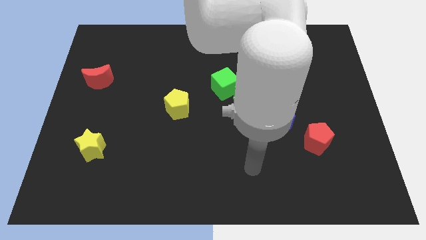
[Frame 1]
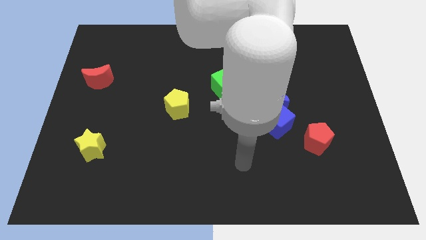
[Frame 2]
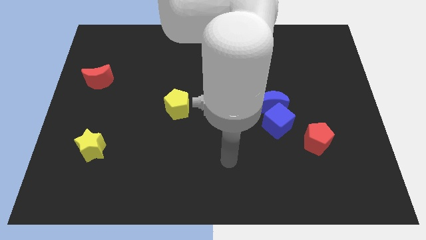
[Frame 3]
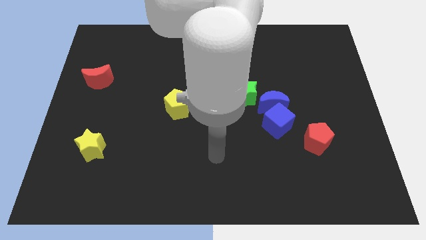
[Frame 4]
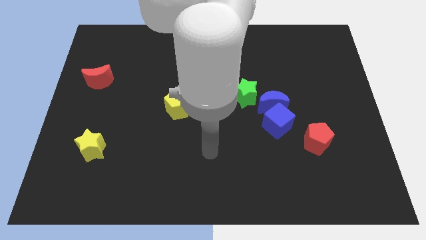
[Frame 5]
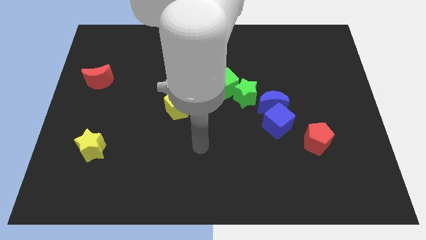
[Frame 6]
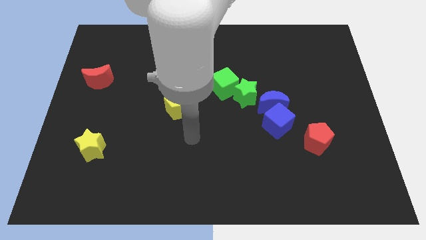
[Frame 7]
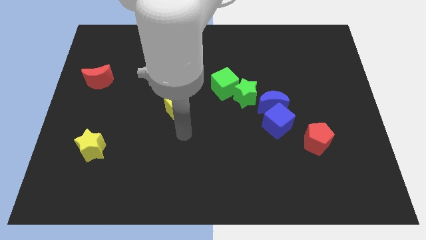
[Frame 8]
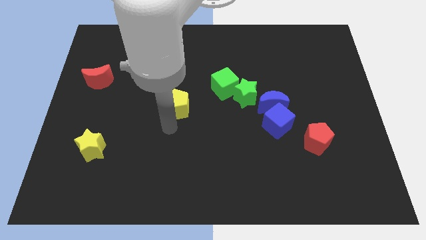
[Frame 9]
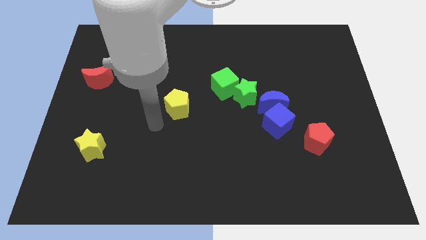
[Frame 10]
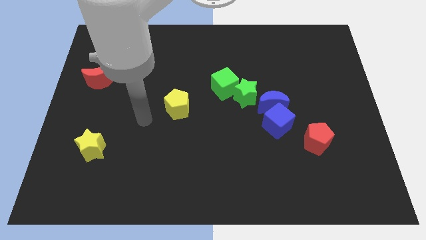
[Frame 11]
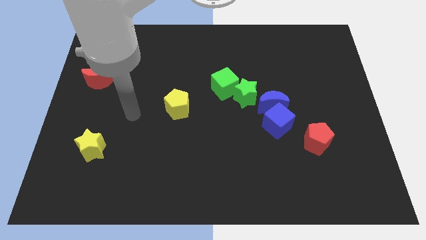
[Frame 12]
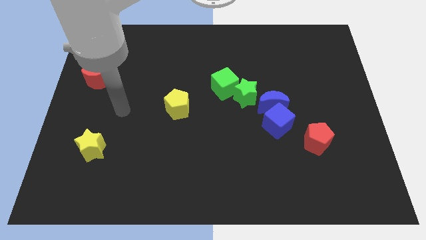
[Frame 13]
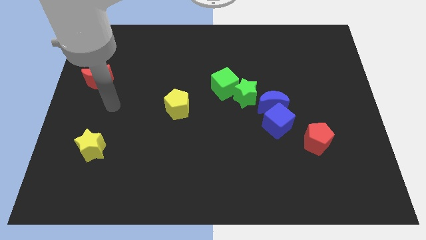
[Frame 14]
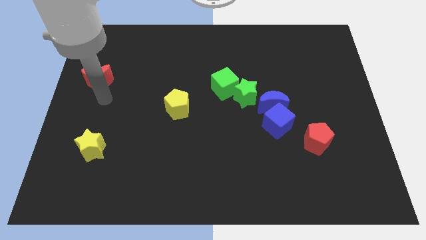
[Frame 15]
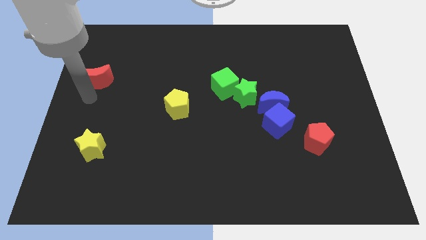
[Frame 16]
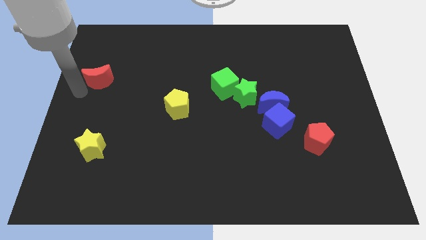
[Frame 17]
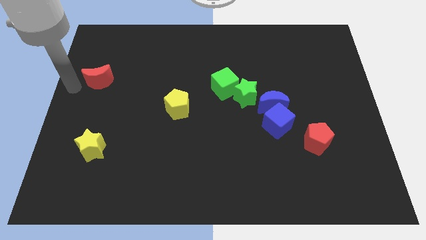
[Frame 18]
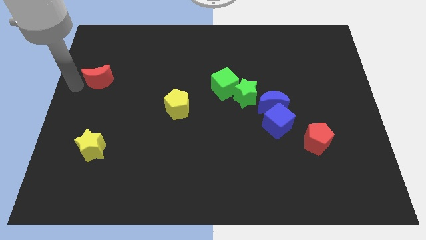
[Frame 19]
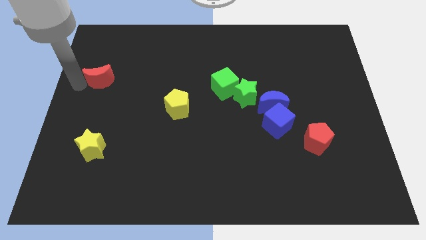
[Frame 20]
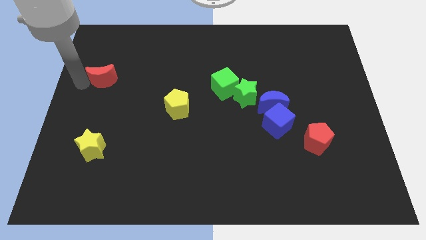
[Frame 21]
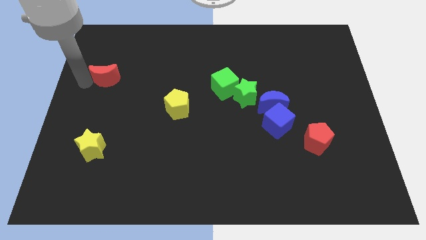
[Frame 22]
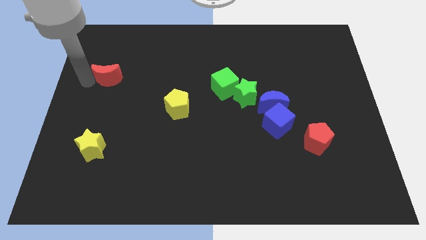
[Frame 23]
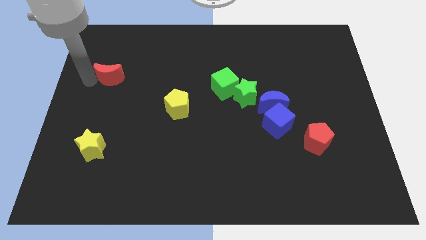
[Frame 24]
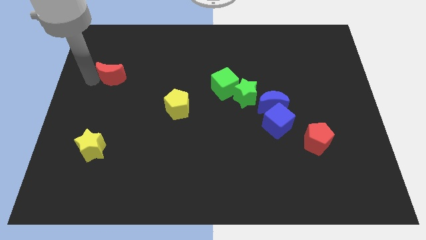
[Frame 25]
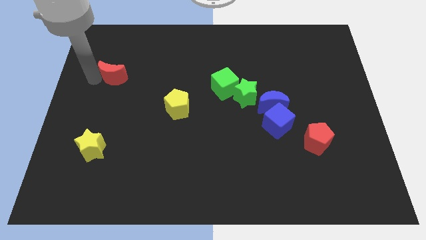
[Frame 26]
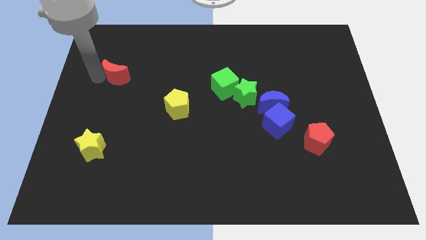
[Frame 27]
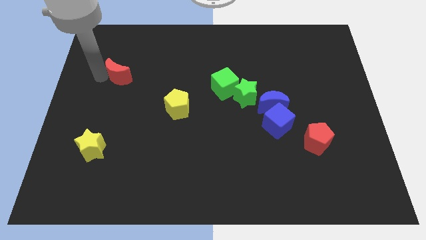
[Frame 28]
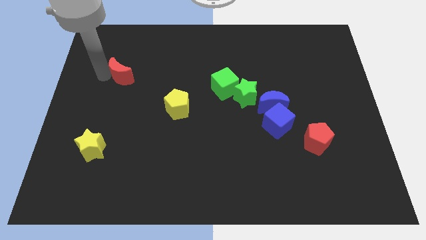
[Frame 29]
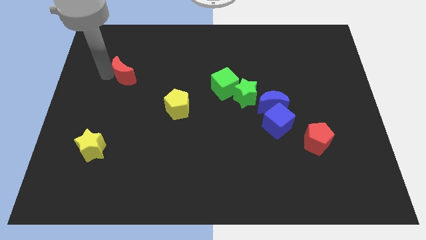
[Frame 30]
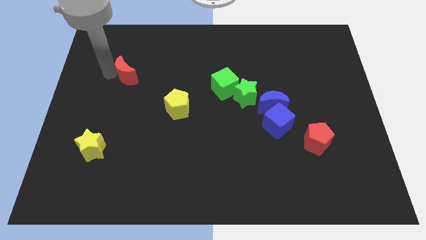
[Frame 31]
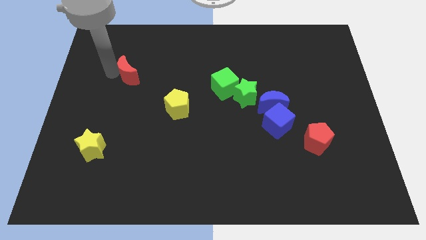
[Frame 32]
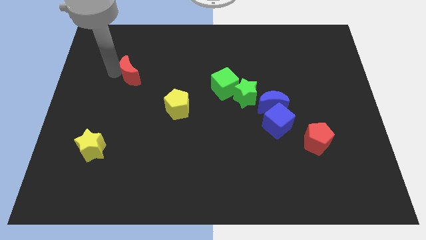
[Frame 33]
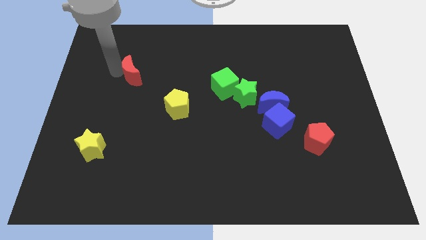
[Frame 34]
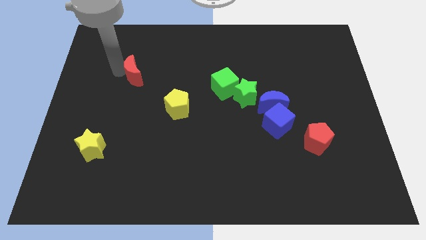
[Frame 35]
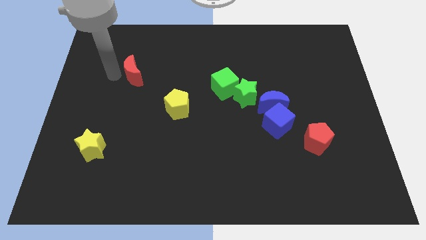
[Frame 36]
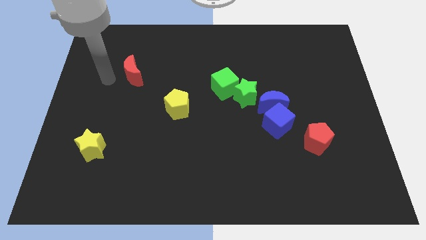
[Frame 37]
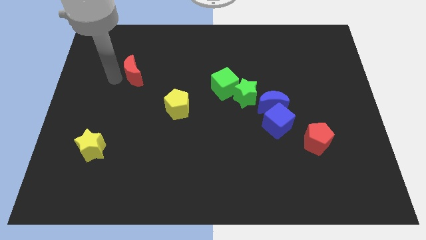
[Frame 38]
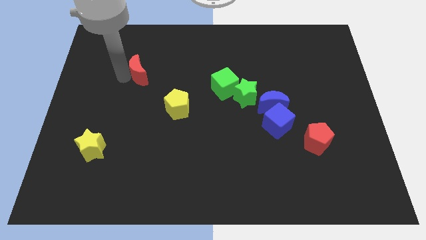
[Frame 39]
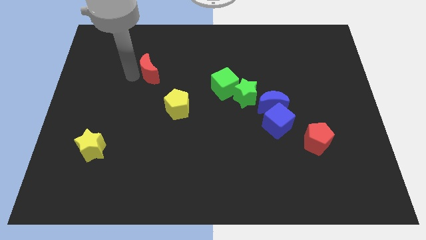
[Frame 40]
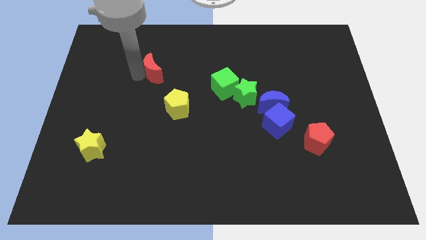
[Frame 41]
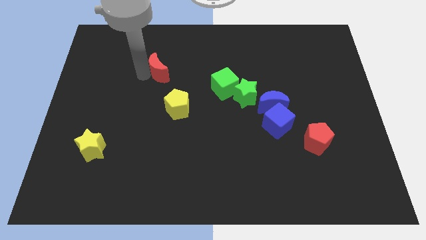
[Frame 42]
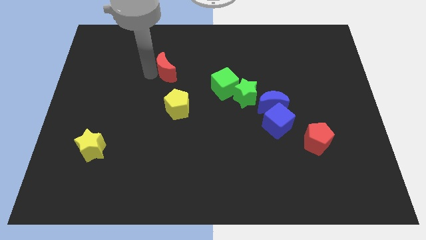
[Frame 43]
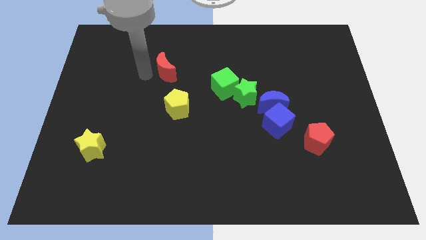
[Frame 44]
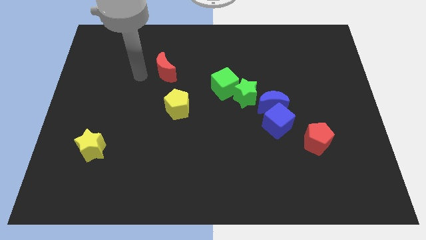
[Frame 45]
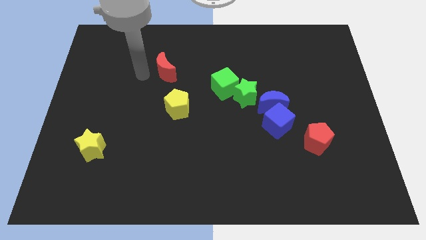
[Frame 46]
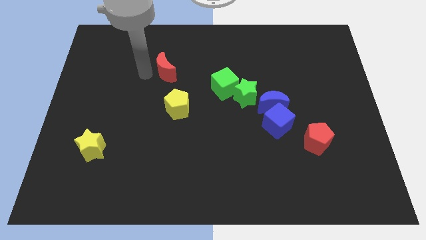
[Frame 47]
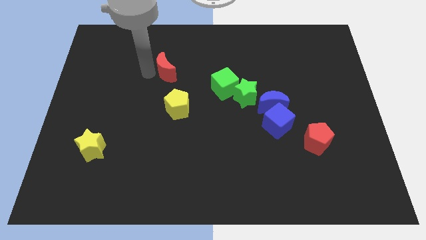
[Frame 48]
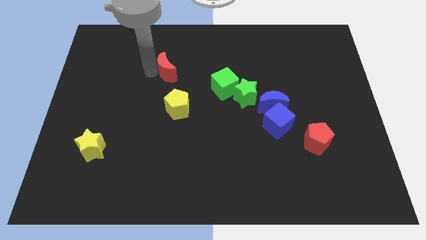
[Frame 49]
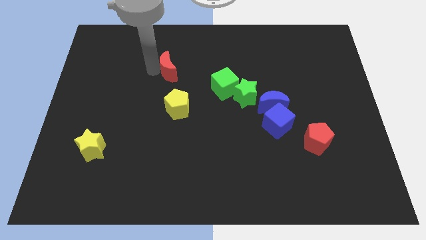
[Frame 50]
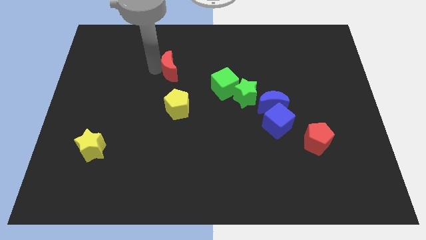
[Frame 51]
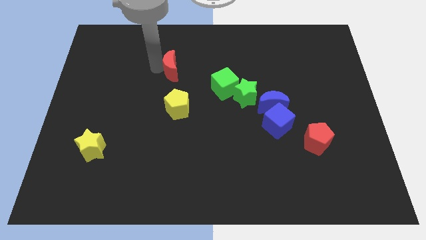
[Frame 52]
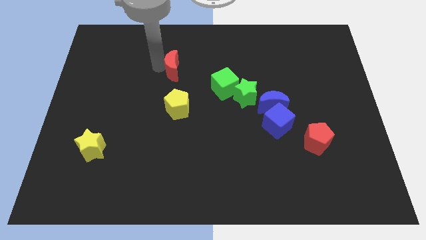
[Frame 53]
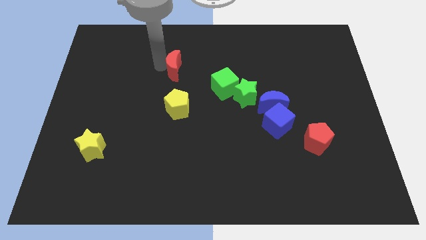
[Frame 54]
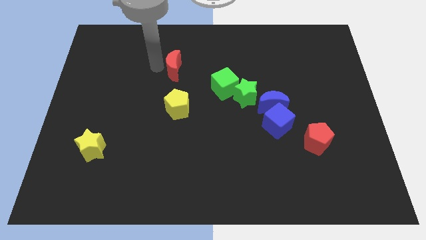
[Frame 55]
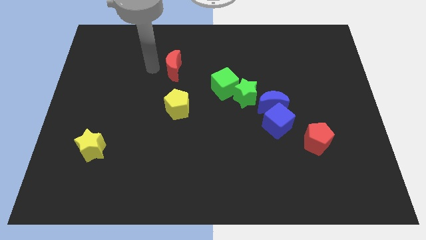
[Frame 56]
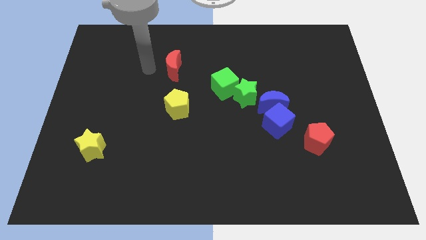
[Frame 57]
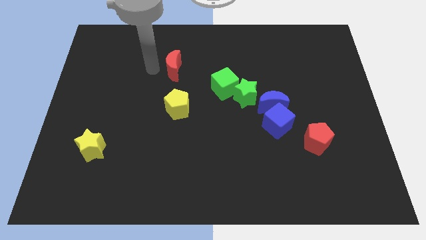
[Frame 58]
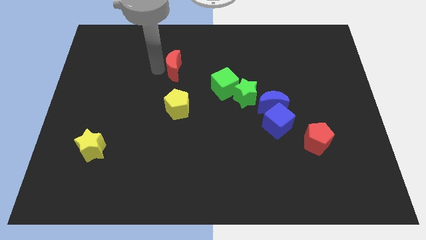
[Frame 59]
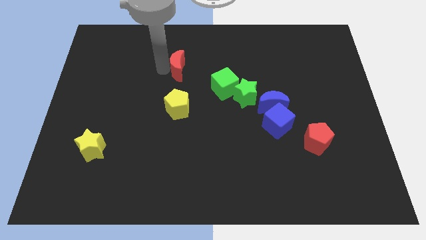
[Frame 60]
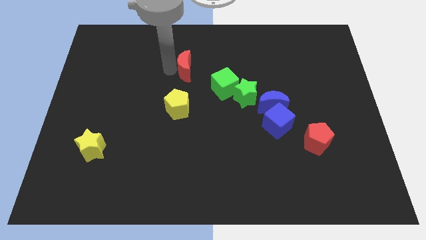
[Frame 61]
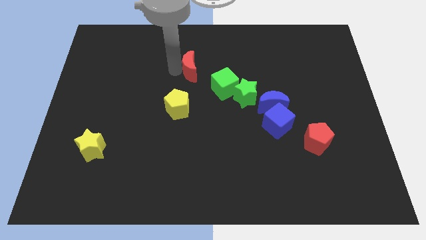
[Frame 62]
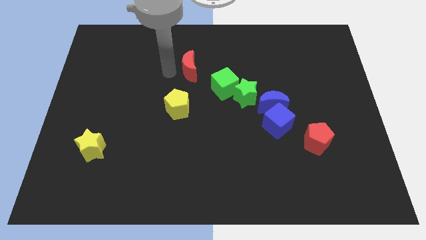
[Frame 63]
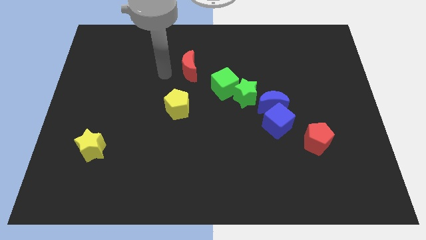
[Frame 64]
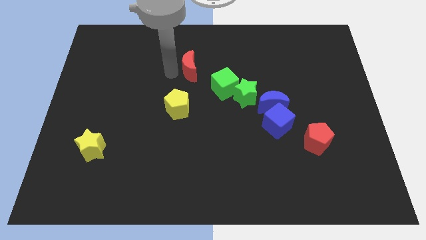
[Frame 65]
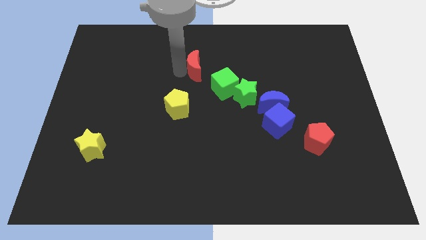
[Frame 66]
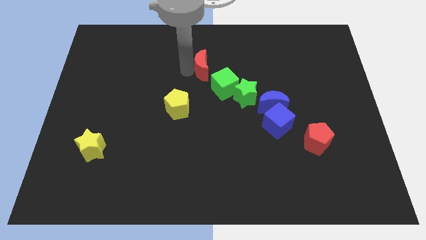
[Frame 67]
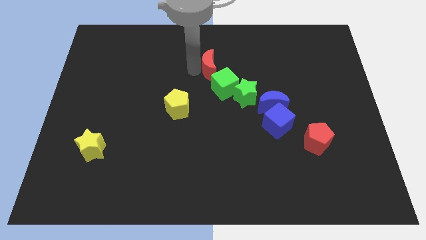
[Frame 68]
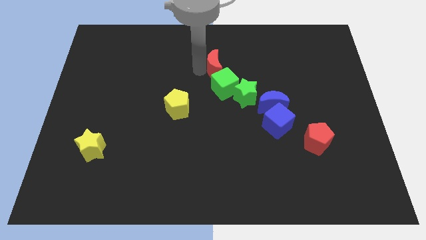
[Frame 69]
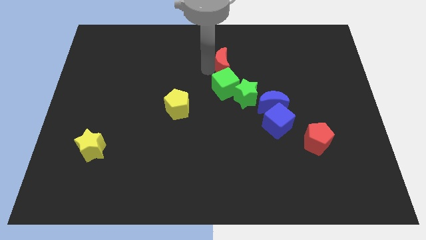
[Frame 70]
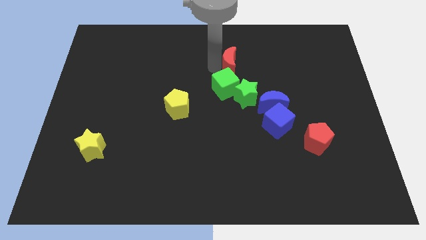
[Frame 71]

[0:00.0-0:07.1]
move the red moon to the top of the green star
